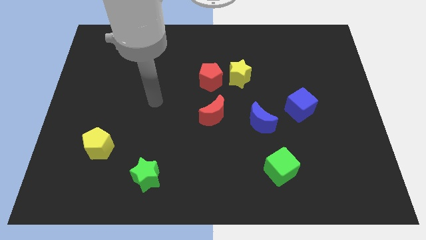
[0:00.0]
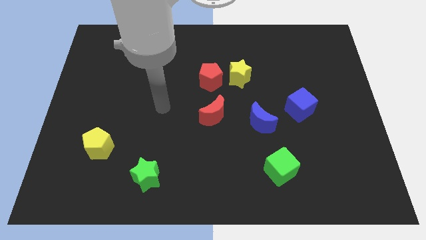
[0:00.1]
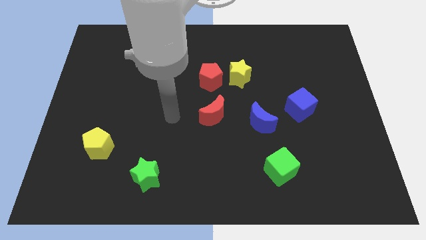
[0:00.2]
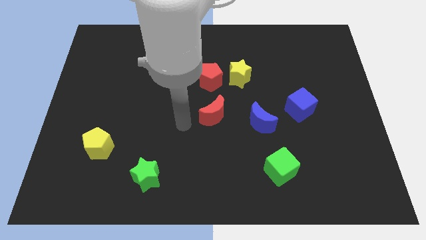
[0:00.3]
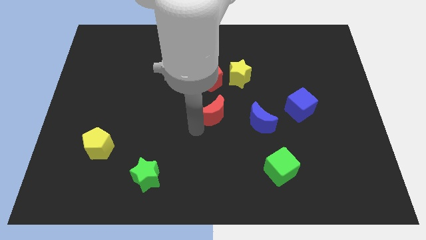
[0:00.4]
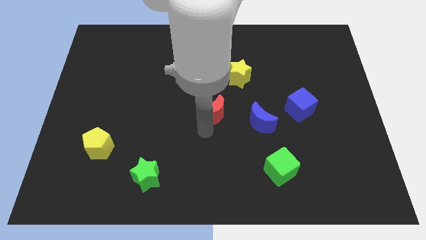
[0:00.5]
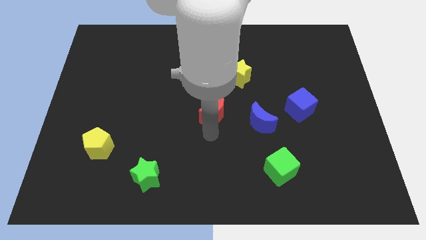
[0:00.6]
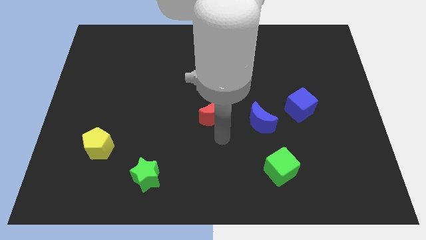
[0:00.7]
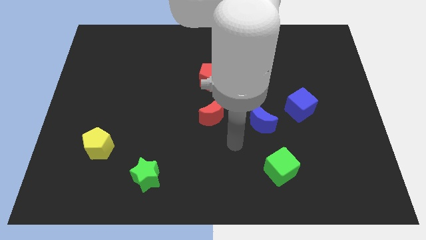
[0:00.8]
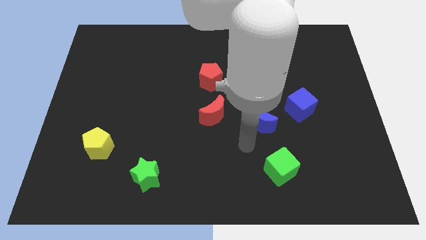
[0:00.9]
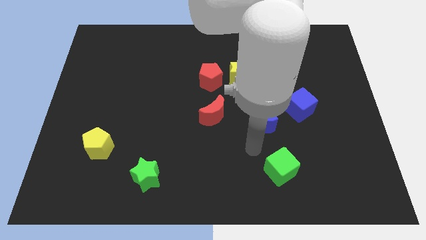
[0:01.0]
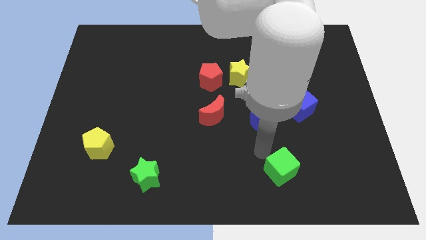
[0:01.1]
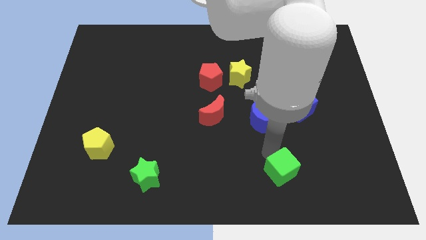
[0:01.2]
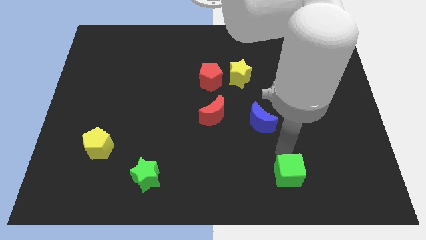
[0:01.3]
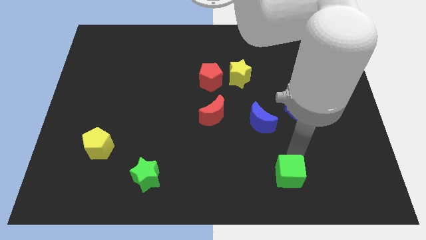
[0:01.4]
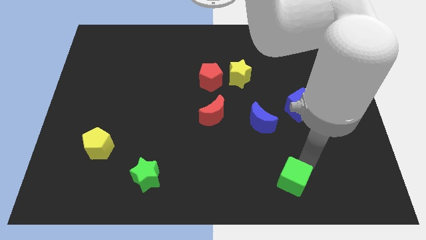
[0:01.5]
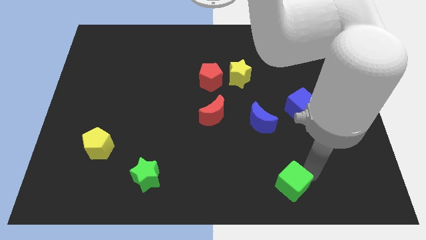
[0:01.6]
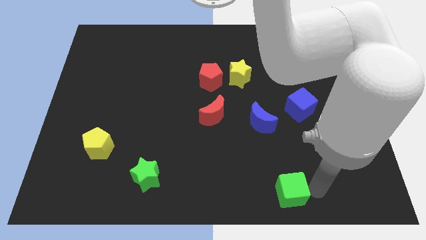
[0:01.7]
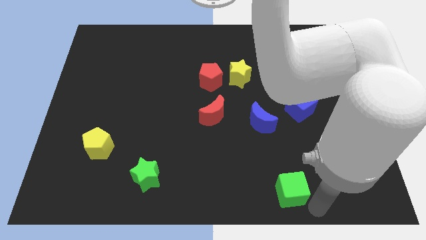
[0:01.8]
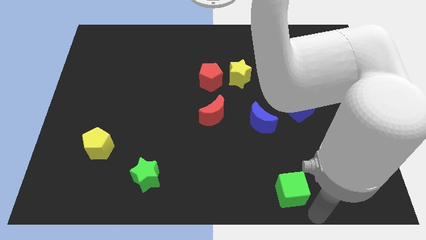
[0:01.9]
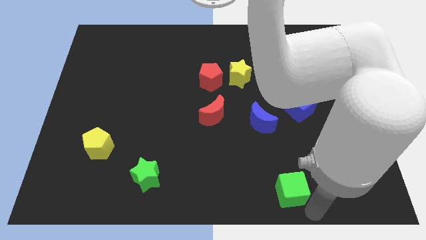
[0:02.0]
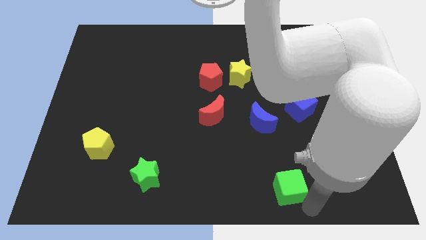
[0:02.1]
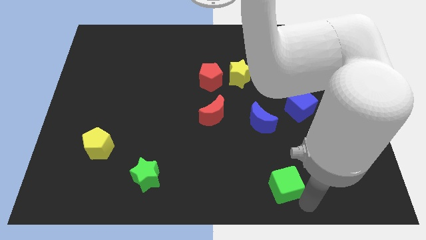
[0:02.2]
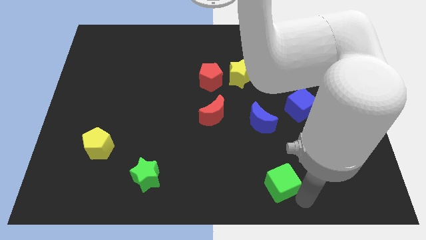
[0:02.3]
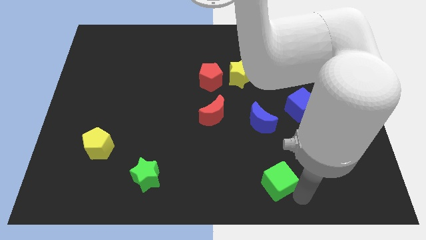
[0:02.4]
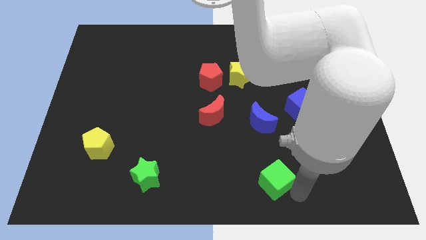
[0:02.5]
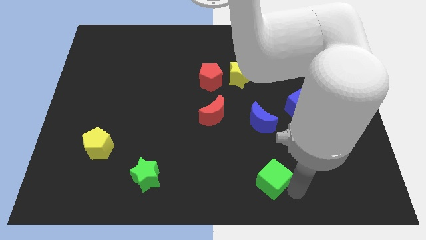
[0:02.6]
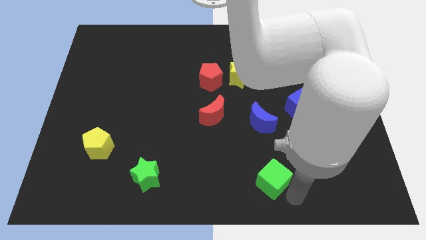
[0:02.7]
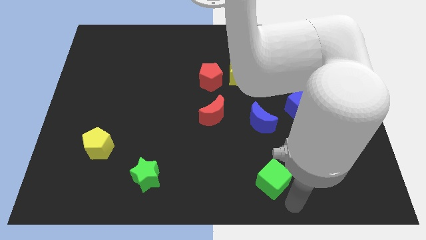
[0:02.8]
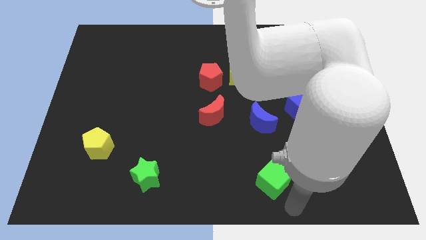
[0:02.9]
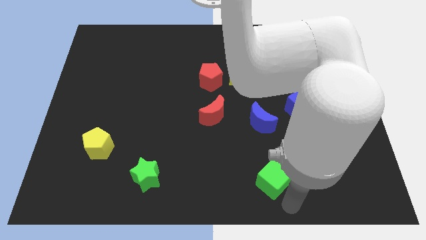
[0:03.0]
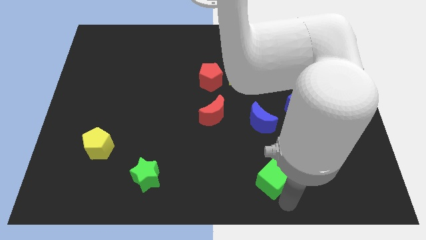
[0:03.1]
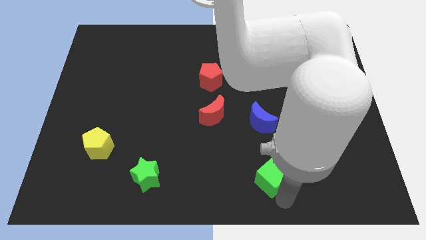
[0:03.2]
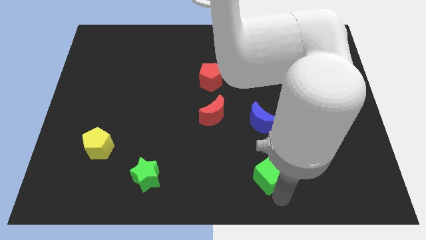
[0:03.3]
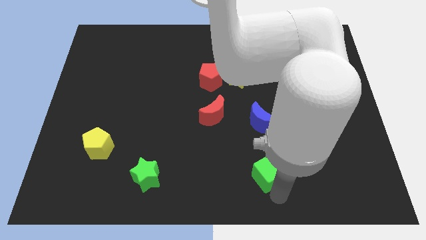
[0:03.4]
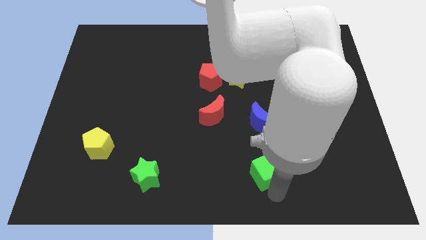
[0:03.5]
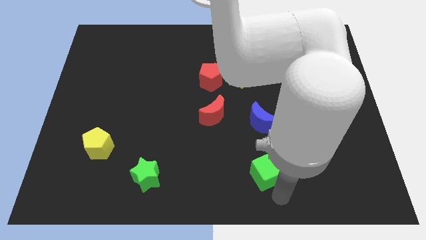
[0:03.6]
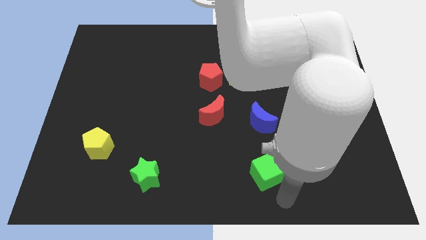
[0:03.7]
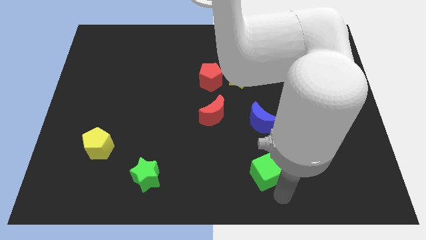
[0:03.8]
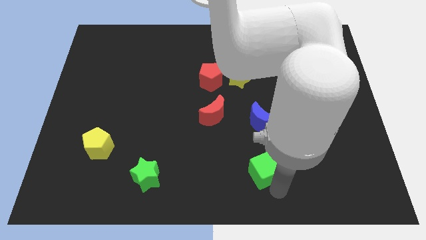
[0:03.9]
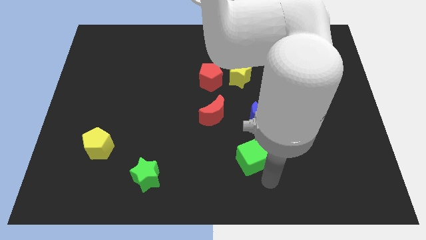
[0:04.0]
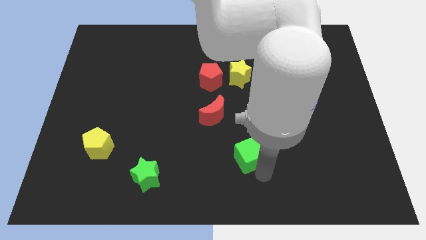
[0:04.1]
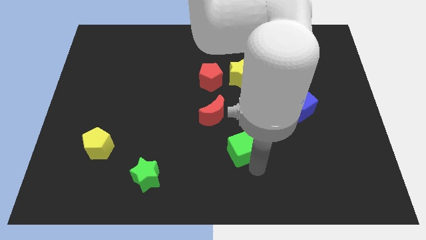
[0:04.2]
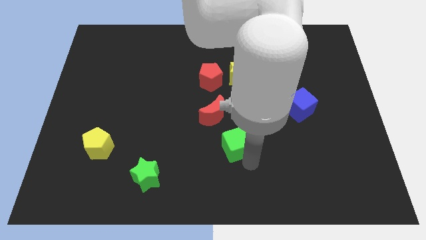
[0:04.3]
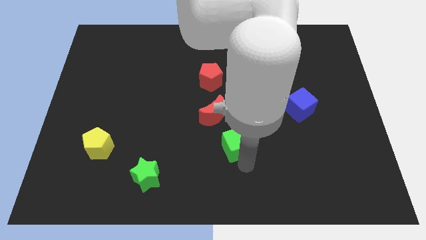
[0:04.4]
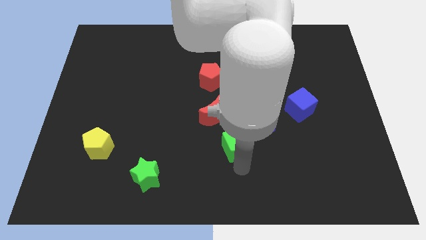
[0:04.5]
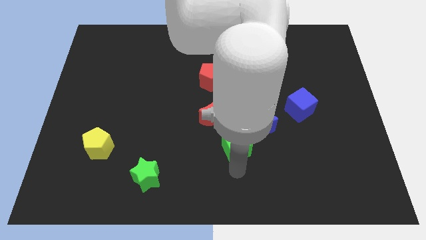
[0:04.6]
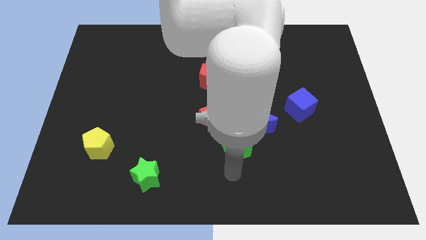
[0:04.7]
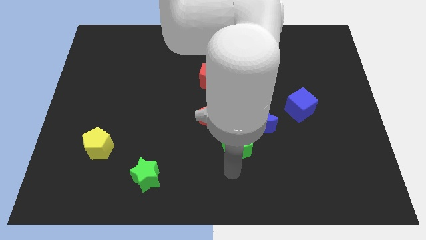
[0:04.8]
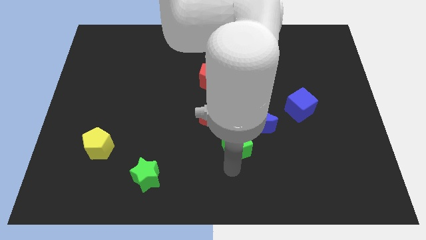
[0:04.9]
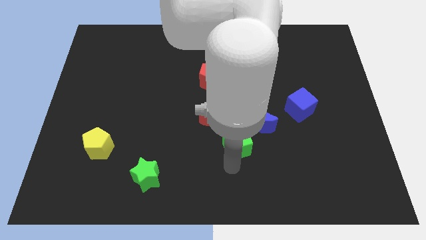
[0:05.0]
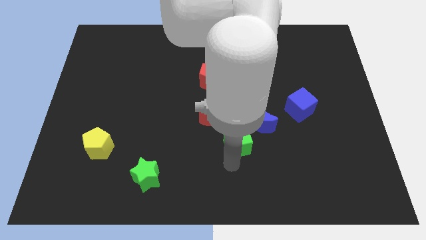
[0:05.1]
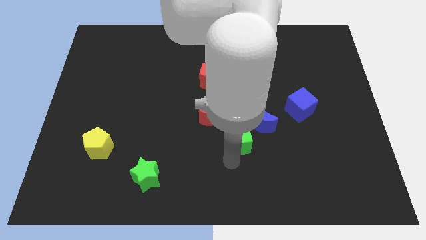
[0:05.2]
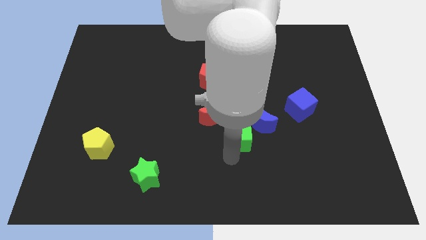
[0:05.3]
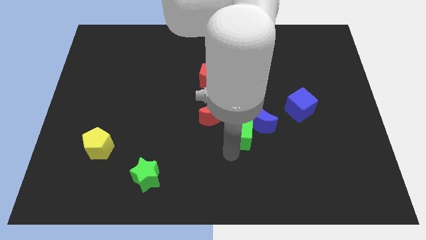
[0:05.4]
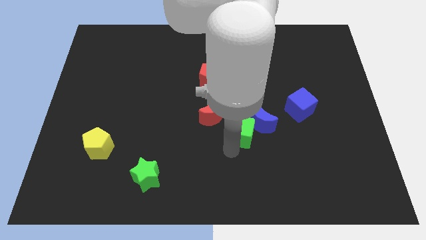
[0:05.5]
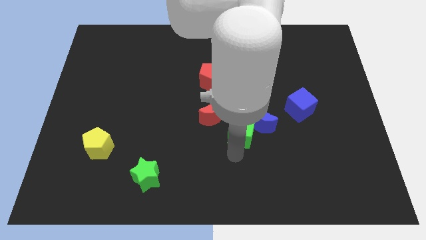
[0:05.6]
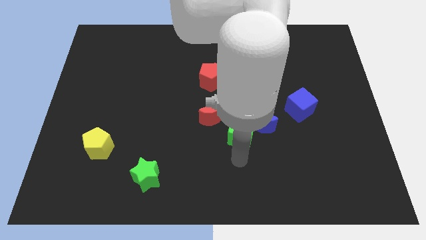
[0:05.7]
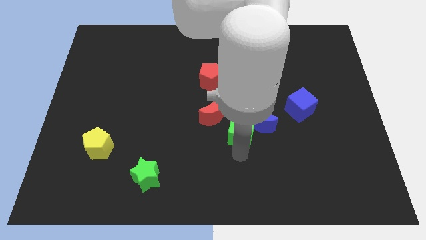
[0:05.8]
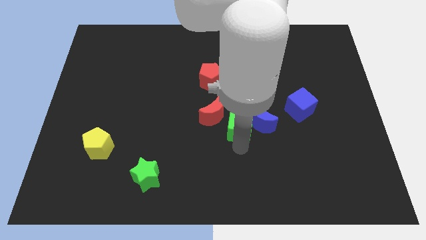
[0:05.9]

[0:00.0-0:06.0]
push the green cube to the bottom of the yellow star
